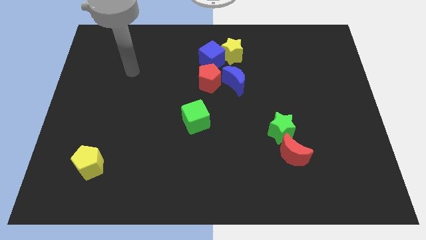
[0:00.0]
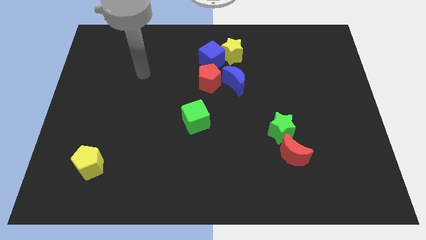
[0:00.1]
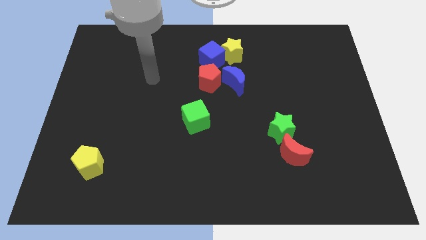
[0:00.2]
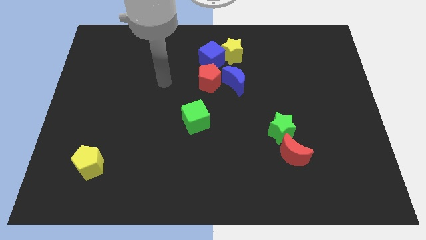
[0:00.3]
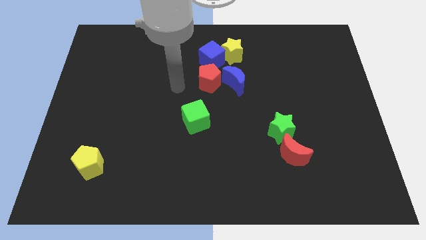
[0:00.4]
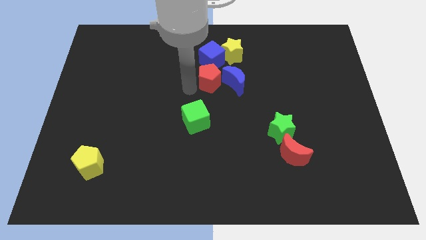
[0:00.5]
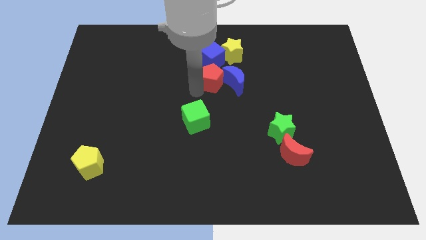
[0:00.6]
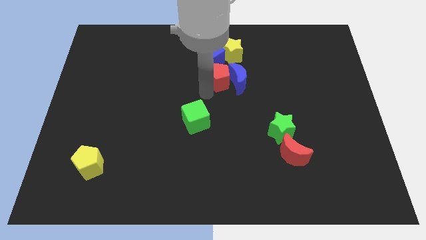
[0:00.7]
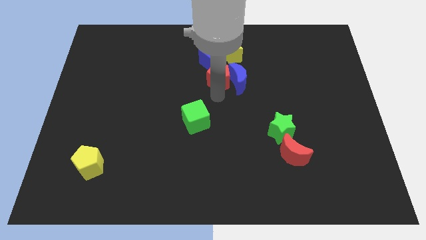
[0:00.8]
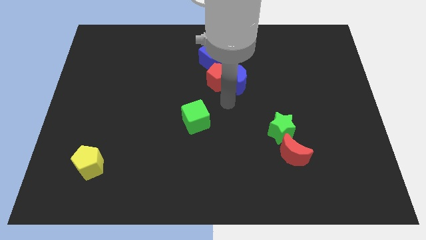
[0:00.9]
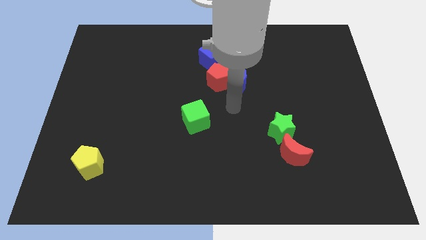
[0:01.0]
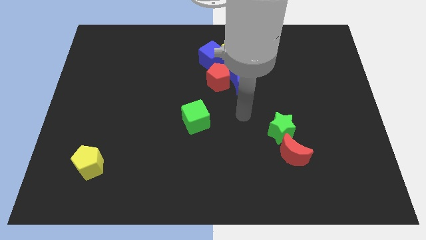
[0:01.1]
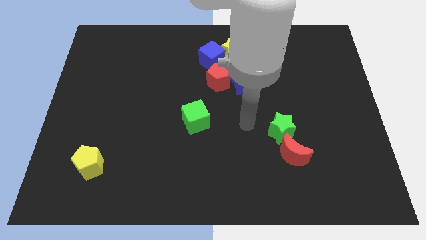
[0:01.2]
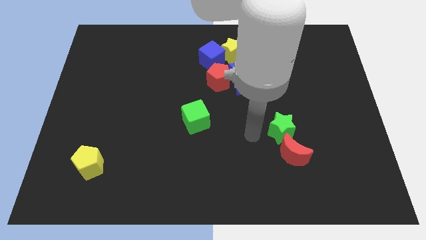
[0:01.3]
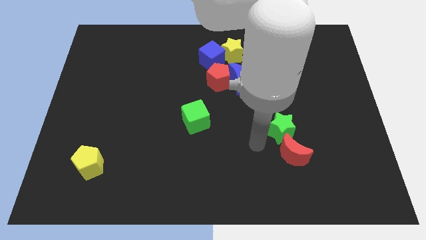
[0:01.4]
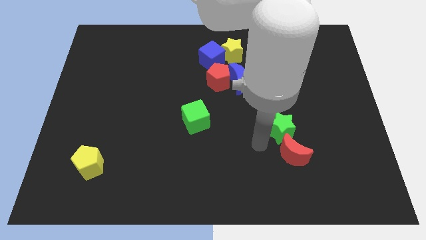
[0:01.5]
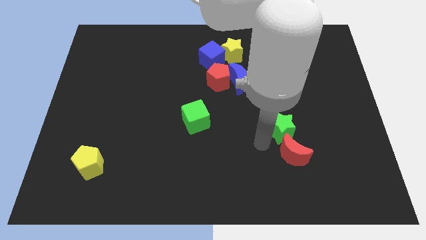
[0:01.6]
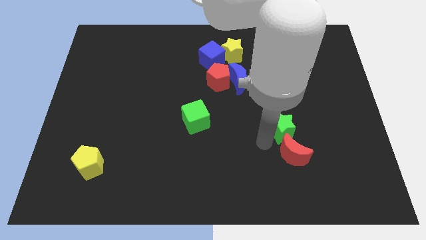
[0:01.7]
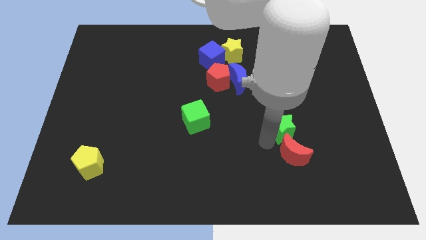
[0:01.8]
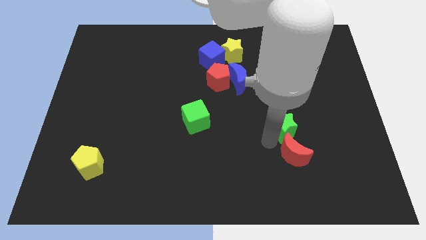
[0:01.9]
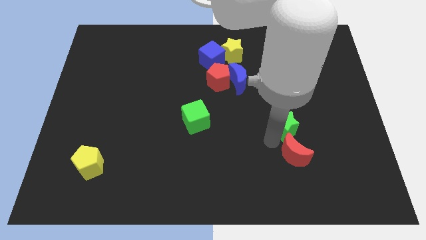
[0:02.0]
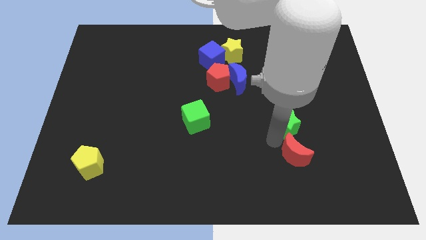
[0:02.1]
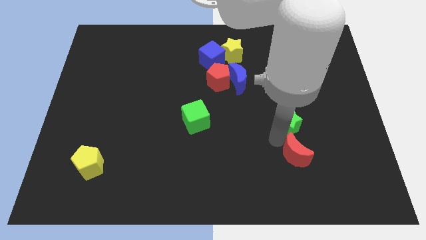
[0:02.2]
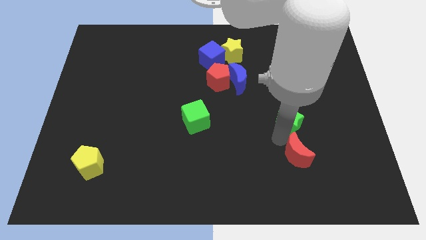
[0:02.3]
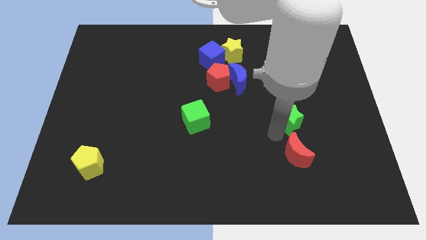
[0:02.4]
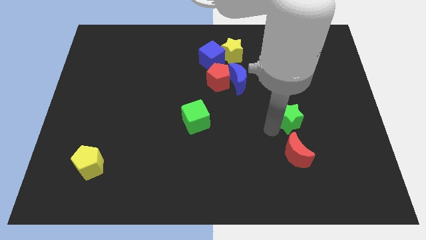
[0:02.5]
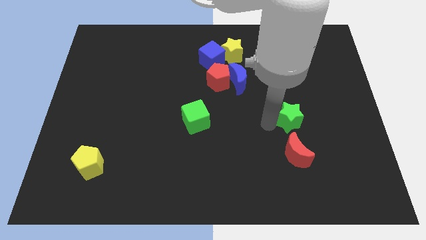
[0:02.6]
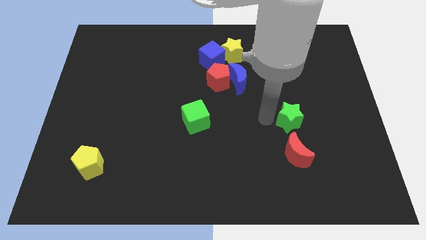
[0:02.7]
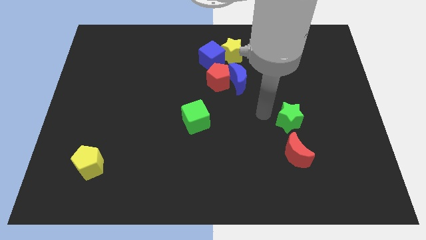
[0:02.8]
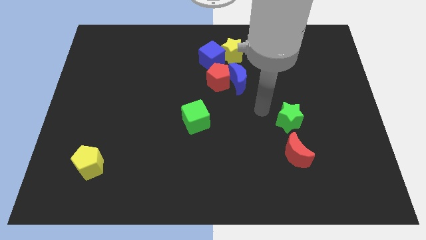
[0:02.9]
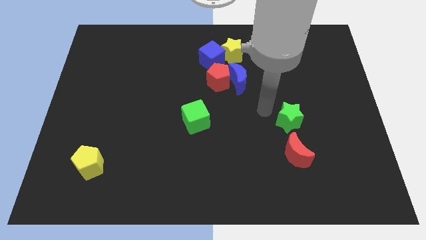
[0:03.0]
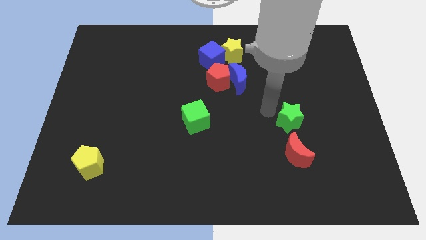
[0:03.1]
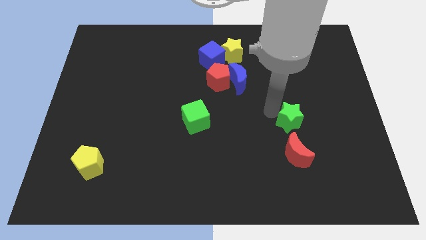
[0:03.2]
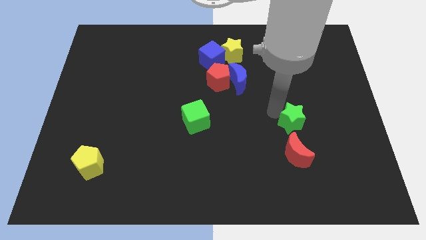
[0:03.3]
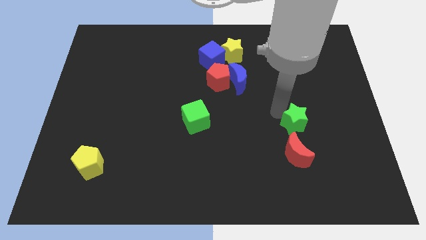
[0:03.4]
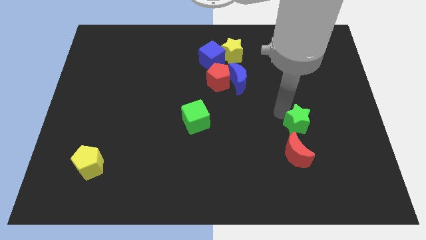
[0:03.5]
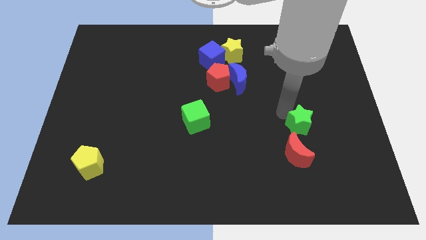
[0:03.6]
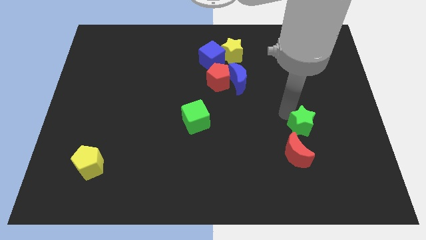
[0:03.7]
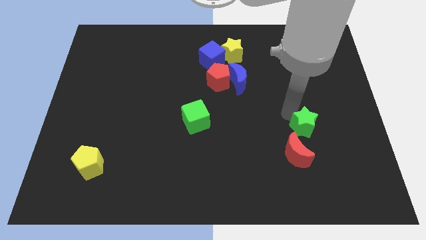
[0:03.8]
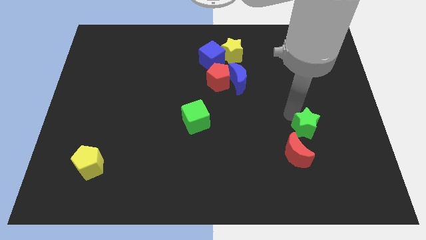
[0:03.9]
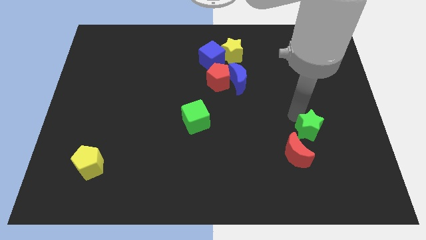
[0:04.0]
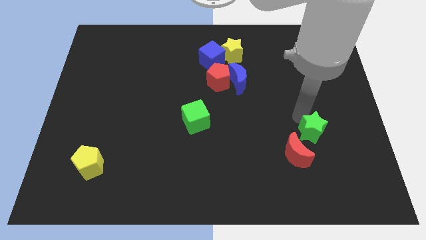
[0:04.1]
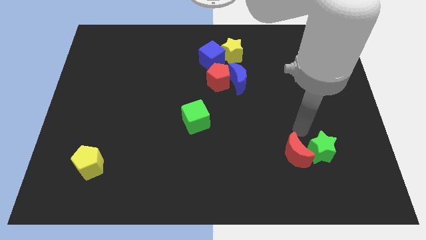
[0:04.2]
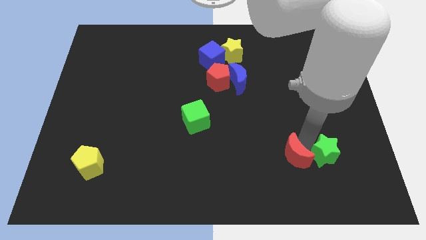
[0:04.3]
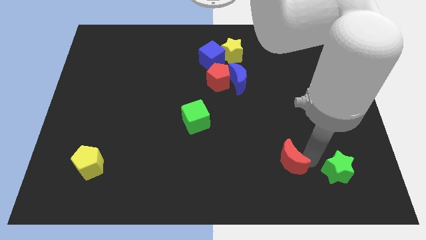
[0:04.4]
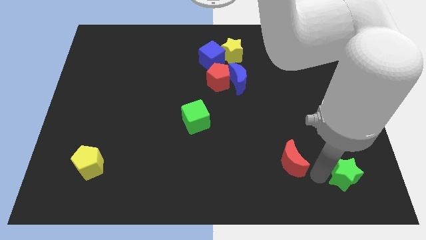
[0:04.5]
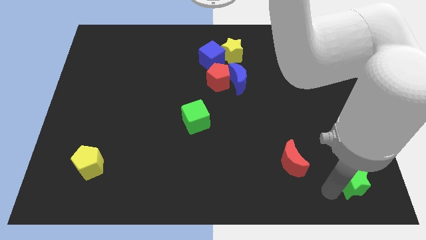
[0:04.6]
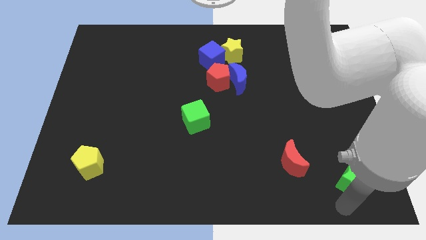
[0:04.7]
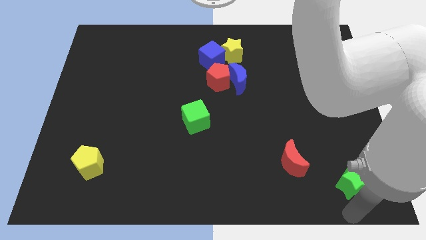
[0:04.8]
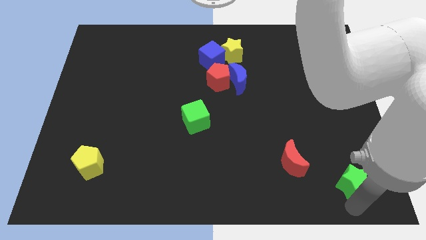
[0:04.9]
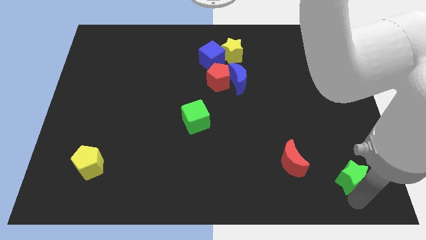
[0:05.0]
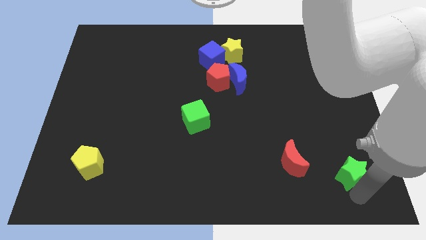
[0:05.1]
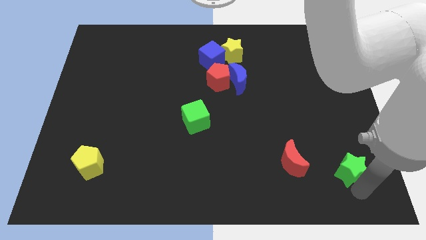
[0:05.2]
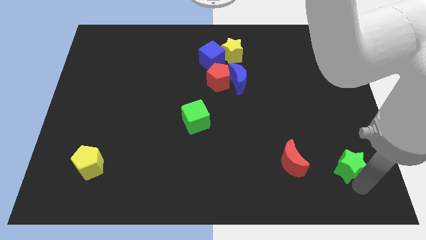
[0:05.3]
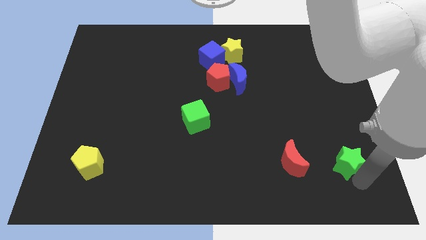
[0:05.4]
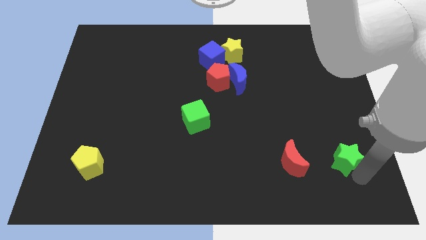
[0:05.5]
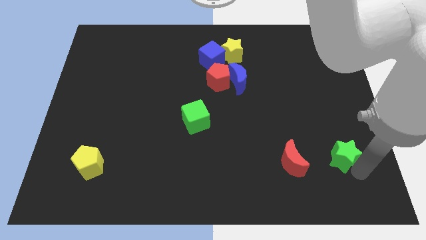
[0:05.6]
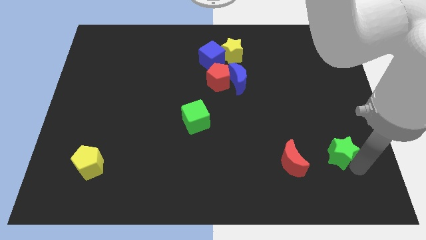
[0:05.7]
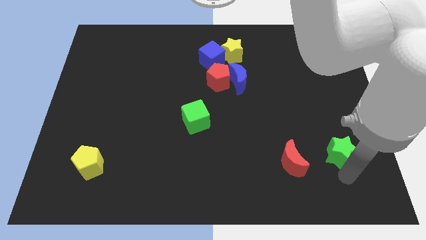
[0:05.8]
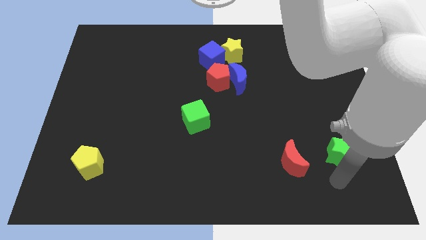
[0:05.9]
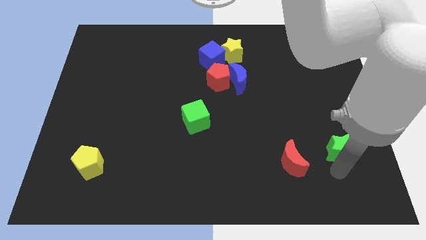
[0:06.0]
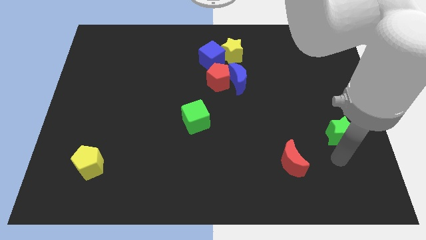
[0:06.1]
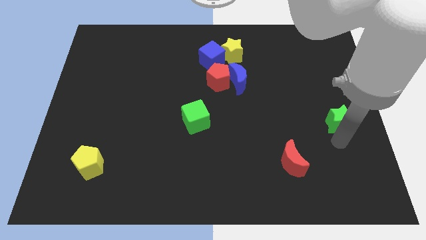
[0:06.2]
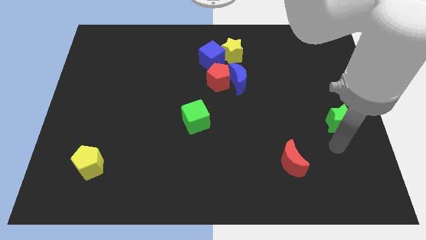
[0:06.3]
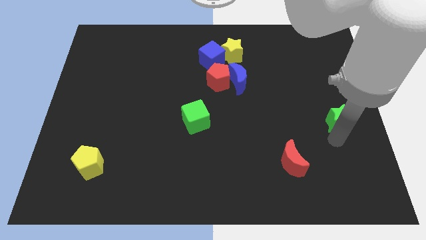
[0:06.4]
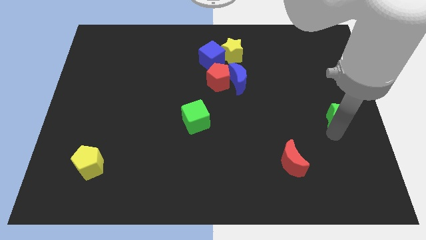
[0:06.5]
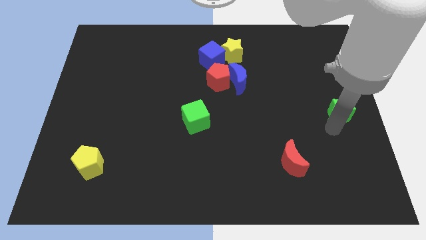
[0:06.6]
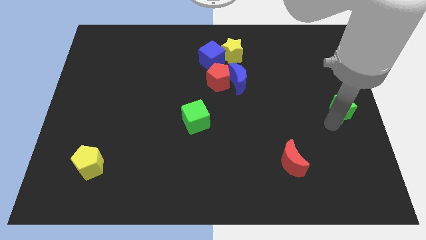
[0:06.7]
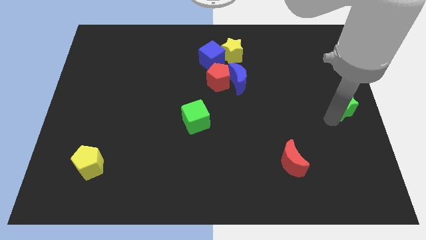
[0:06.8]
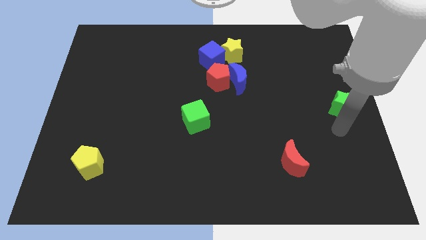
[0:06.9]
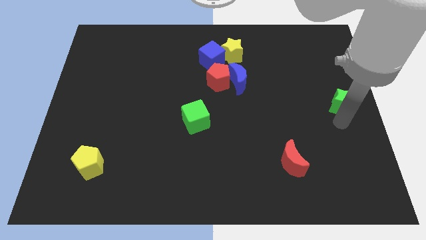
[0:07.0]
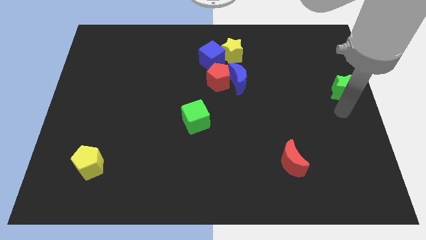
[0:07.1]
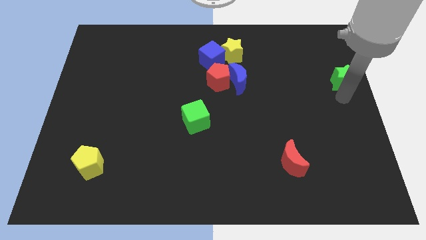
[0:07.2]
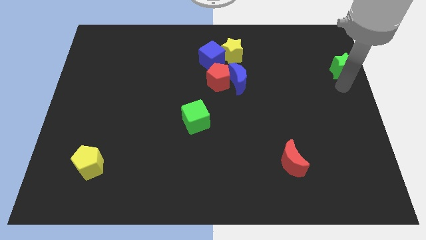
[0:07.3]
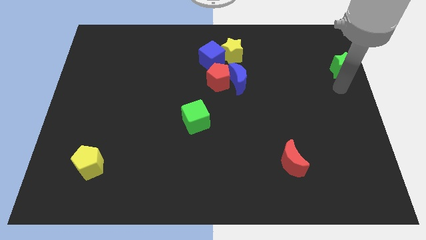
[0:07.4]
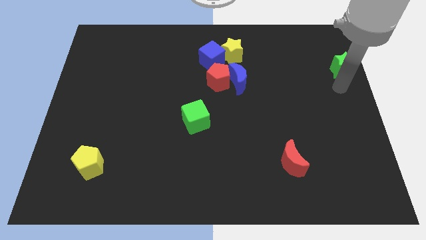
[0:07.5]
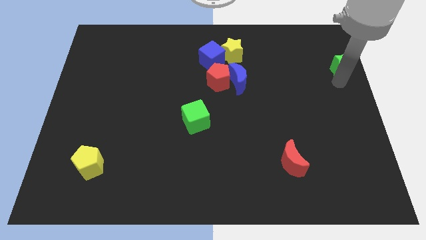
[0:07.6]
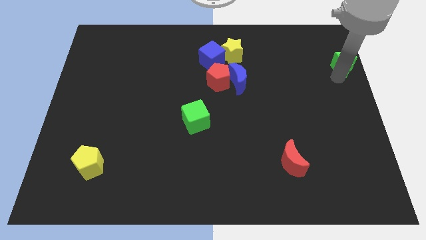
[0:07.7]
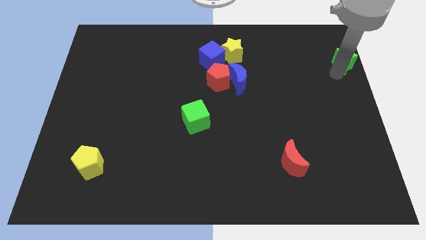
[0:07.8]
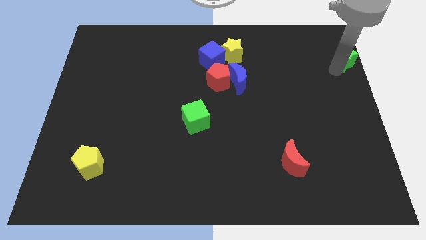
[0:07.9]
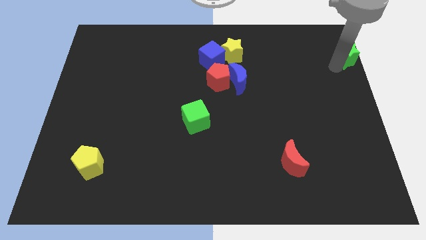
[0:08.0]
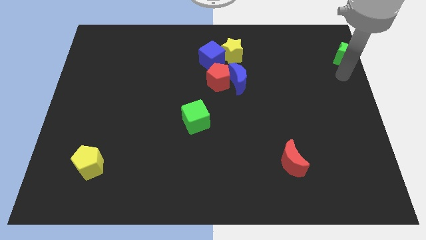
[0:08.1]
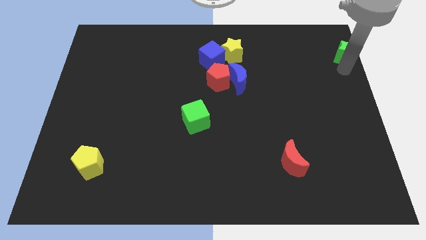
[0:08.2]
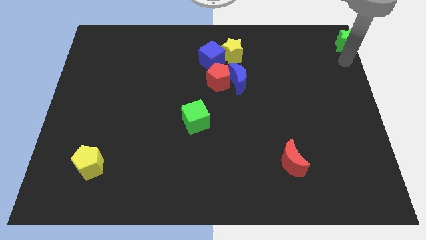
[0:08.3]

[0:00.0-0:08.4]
slide the green star to the top right of the board
